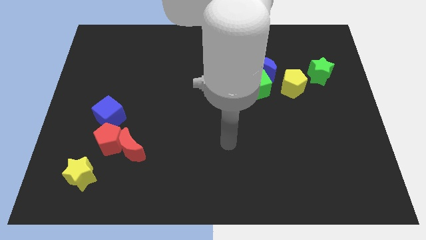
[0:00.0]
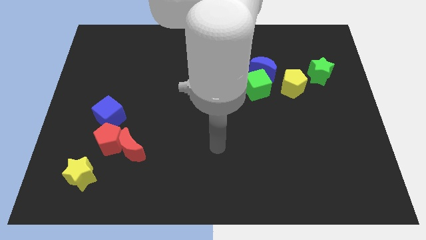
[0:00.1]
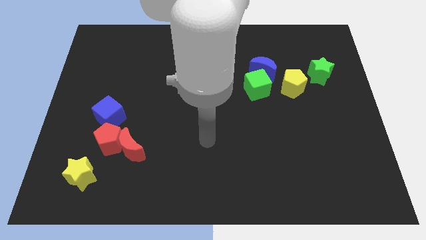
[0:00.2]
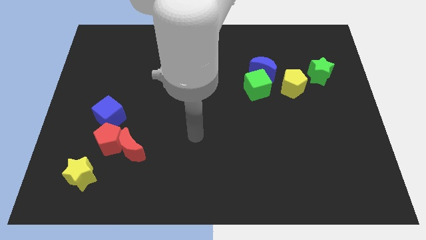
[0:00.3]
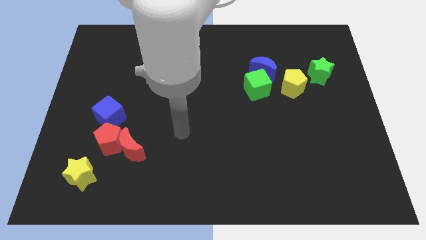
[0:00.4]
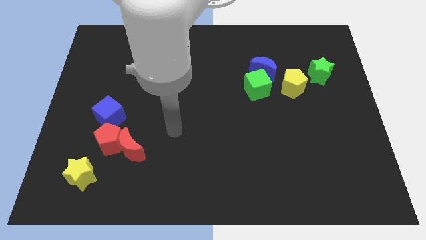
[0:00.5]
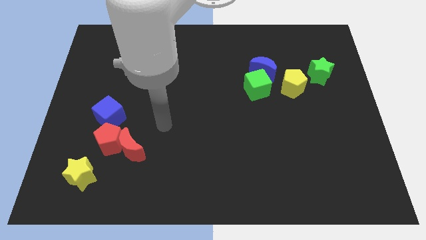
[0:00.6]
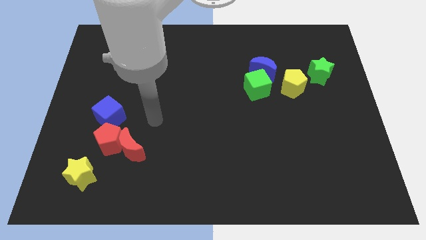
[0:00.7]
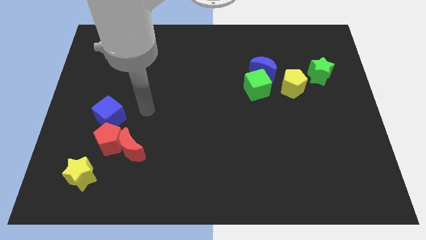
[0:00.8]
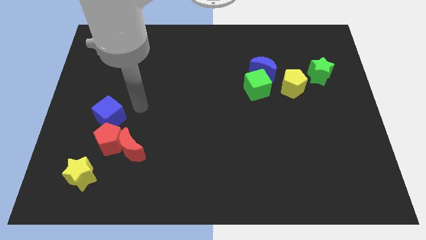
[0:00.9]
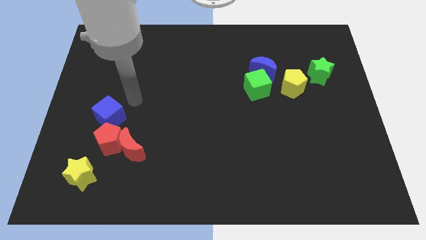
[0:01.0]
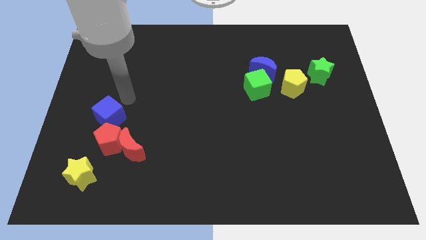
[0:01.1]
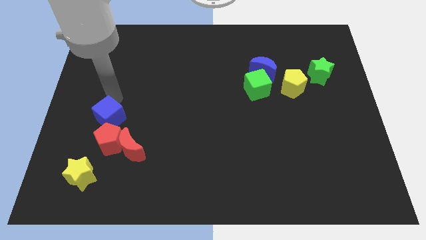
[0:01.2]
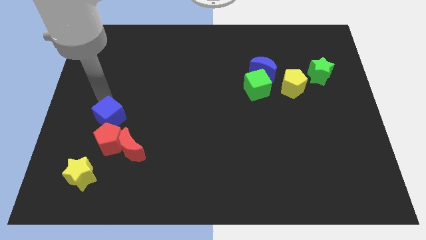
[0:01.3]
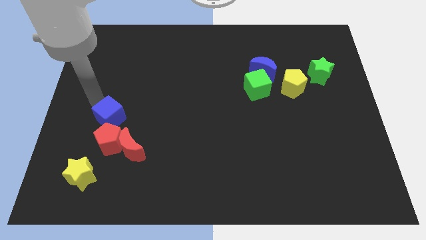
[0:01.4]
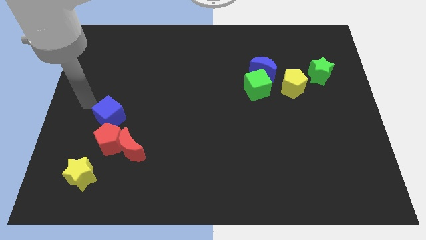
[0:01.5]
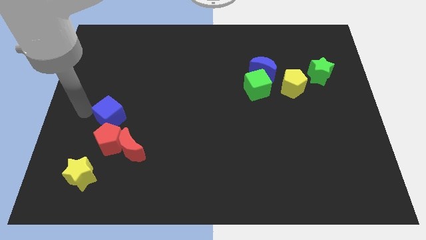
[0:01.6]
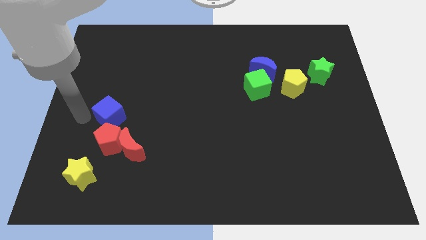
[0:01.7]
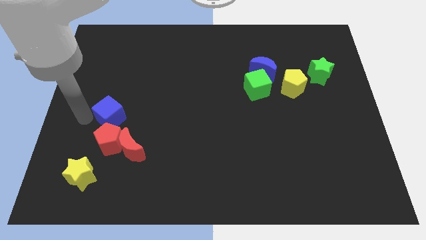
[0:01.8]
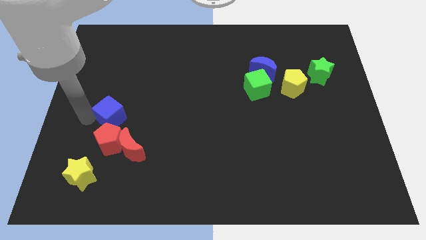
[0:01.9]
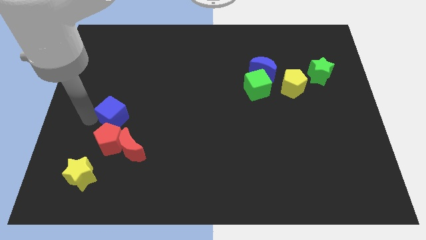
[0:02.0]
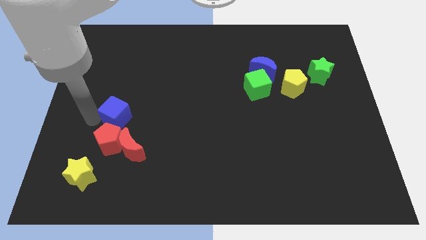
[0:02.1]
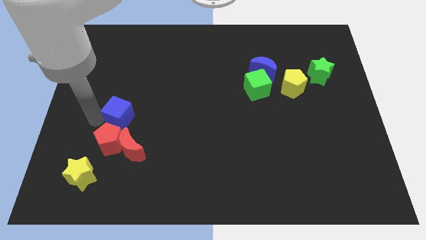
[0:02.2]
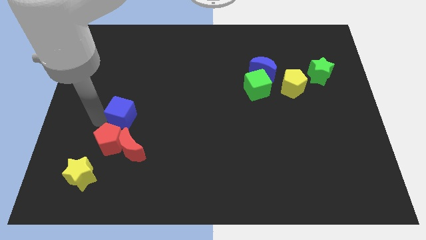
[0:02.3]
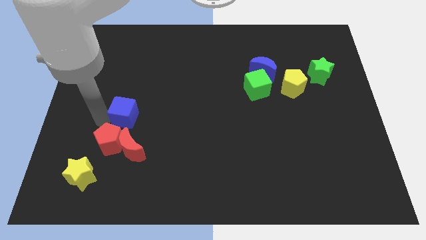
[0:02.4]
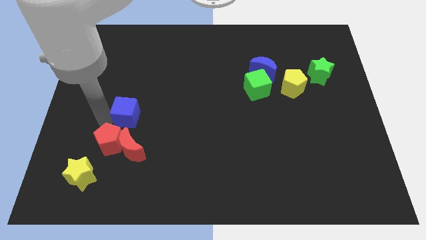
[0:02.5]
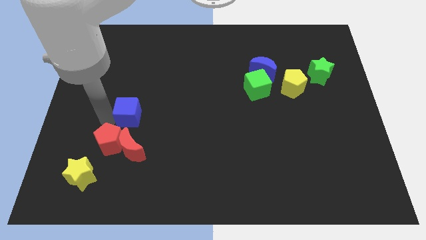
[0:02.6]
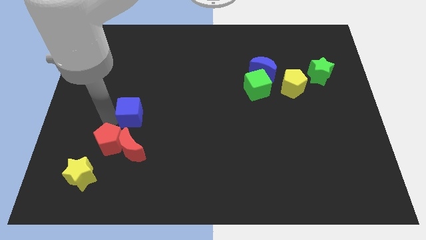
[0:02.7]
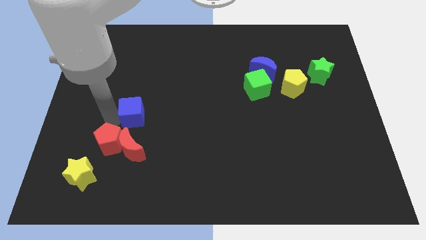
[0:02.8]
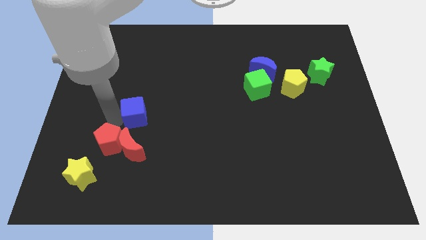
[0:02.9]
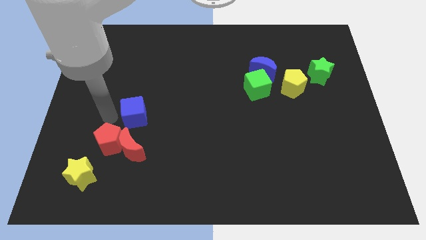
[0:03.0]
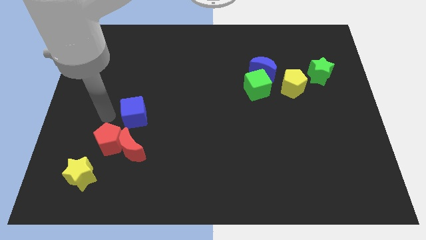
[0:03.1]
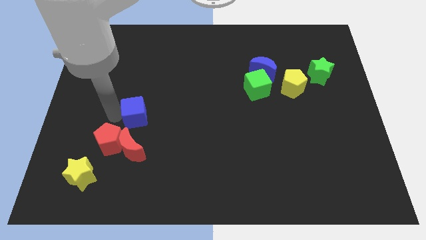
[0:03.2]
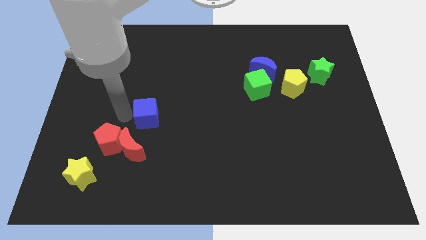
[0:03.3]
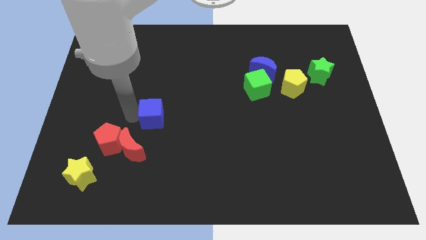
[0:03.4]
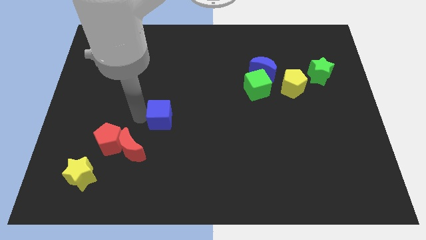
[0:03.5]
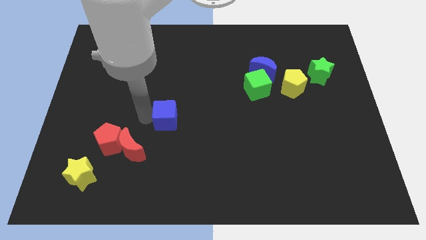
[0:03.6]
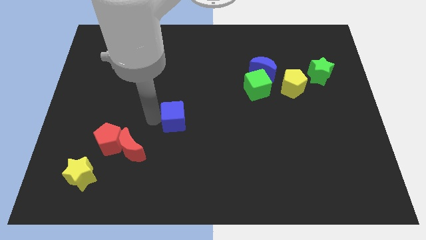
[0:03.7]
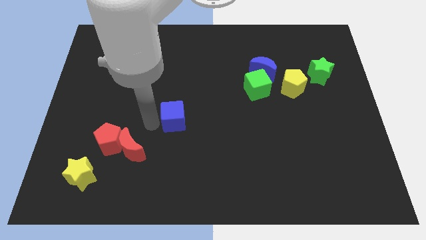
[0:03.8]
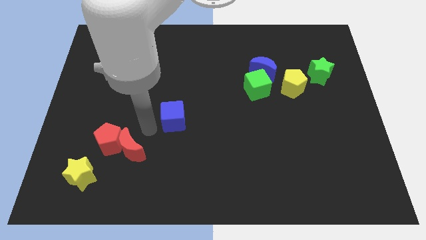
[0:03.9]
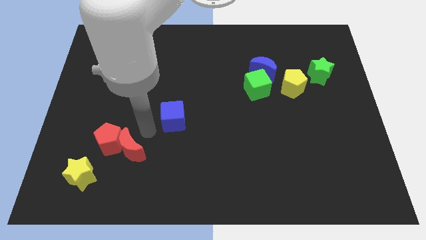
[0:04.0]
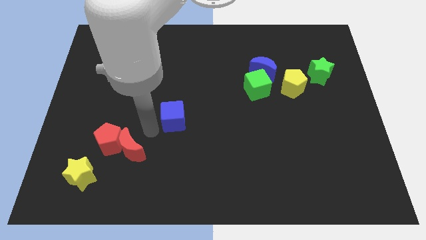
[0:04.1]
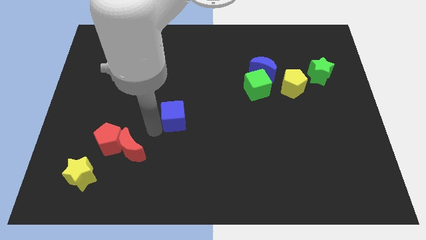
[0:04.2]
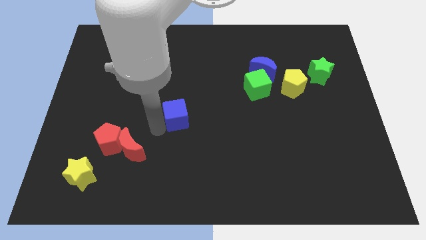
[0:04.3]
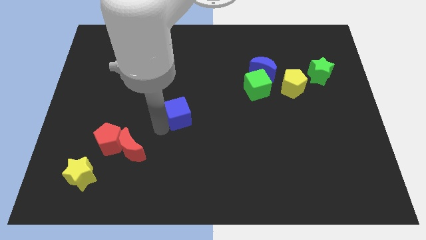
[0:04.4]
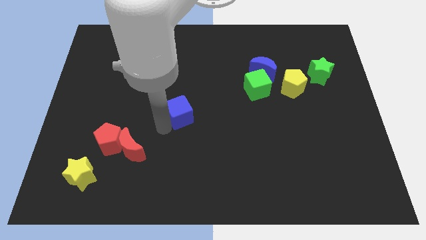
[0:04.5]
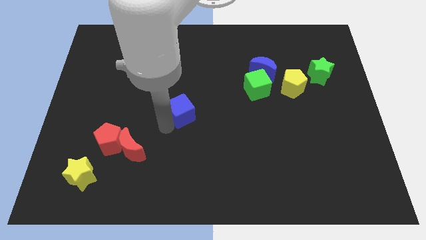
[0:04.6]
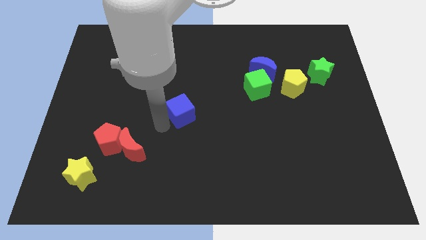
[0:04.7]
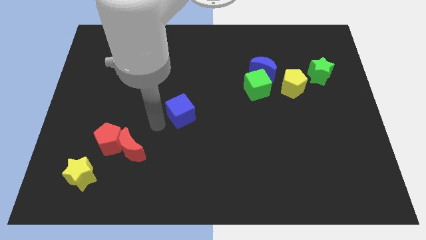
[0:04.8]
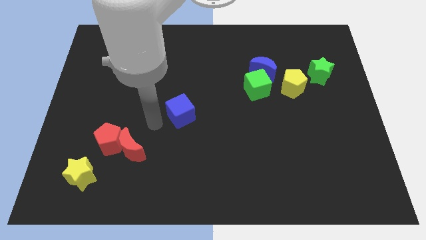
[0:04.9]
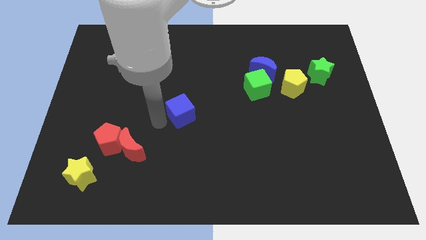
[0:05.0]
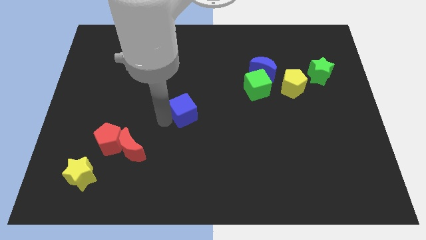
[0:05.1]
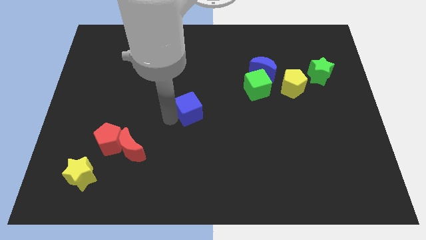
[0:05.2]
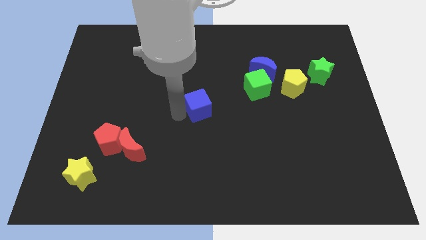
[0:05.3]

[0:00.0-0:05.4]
push the blue cube to the right

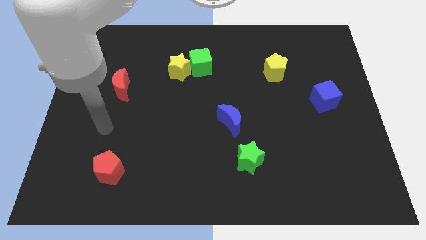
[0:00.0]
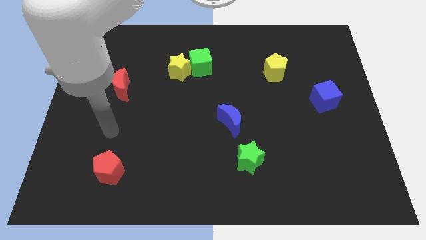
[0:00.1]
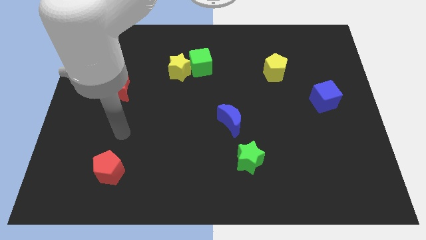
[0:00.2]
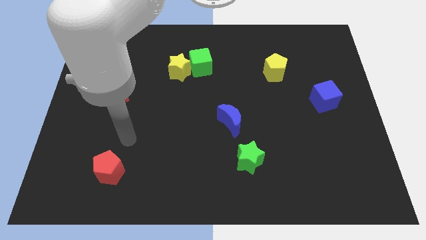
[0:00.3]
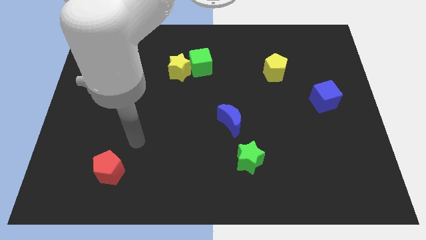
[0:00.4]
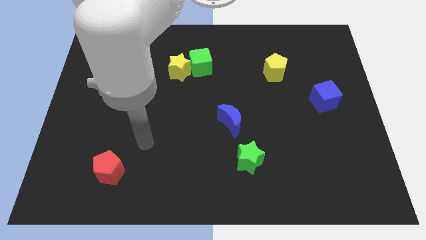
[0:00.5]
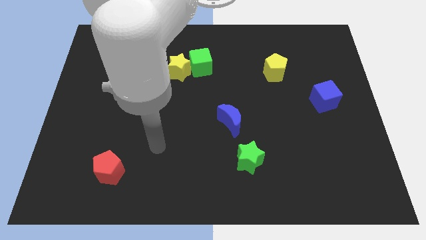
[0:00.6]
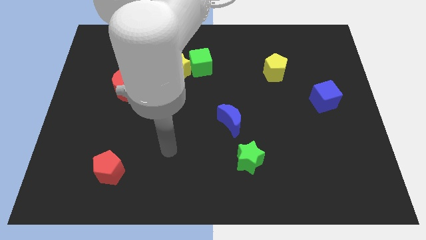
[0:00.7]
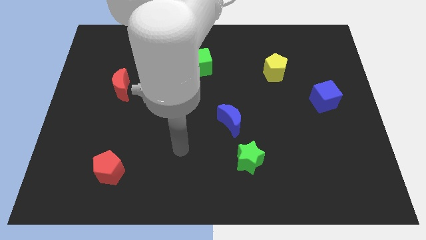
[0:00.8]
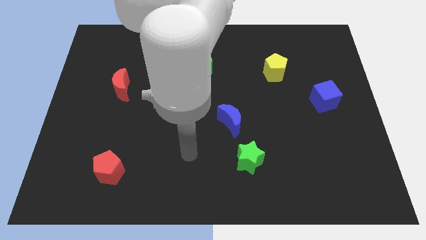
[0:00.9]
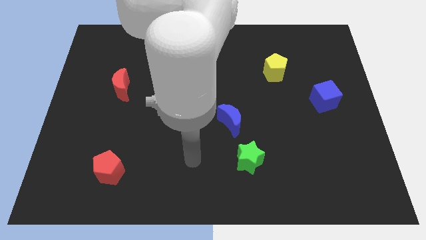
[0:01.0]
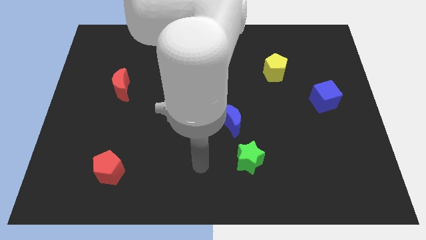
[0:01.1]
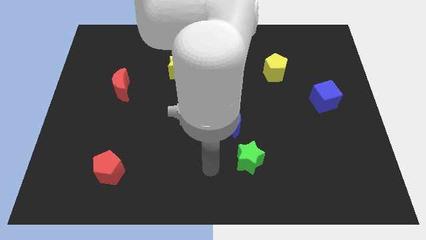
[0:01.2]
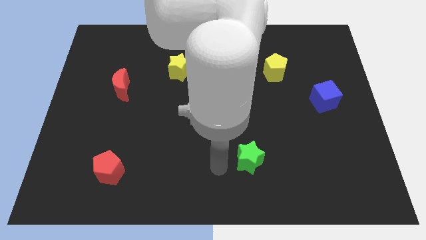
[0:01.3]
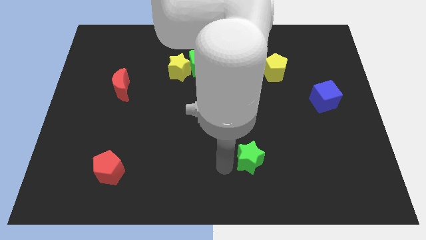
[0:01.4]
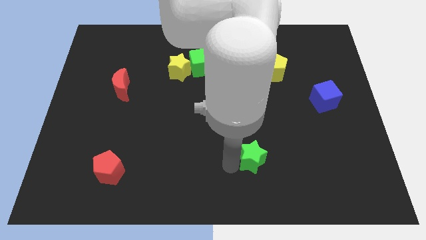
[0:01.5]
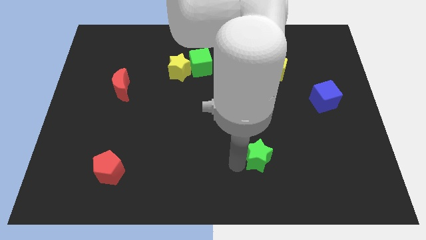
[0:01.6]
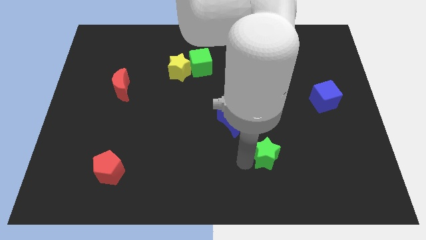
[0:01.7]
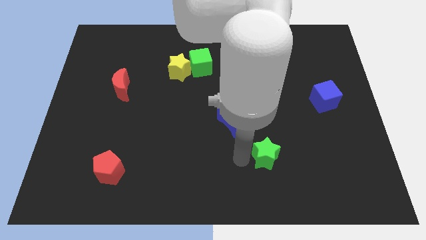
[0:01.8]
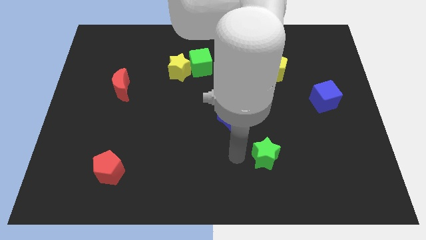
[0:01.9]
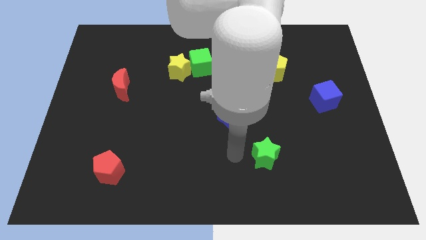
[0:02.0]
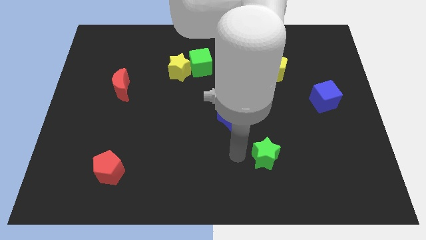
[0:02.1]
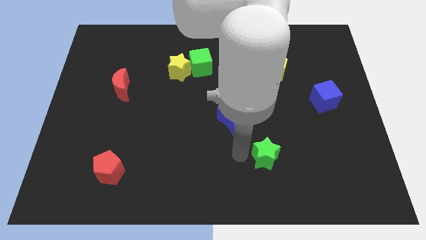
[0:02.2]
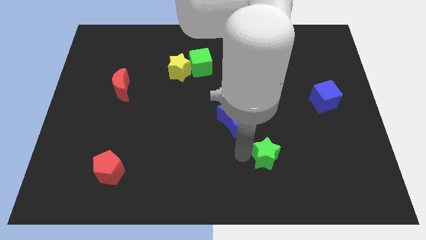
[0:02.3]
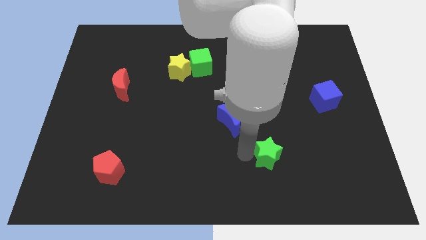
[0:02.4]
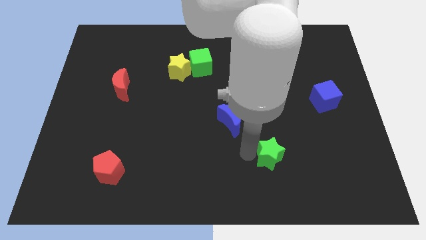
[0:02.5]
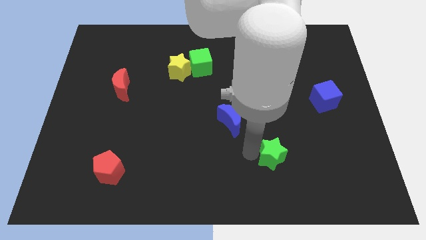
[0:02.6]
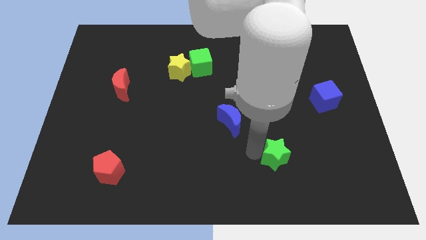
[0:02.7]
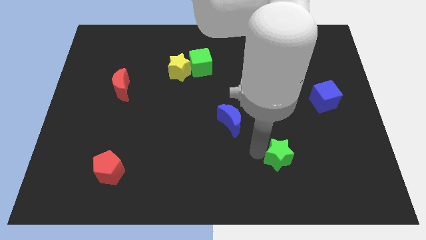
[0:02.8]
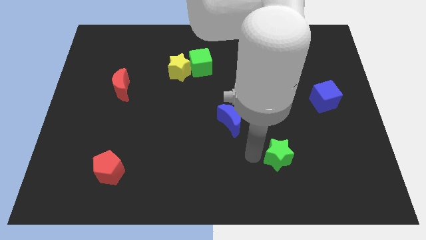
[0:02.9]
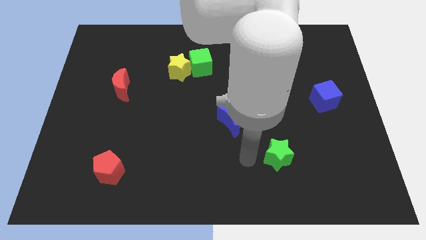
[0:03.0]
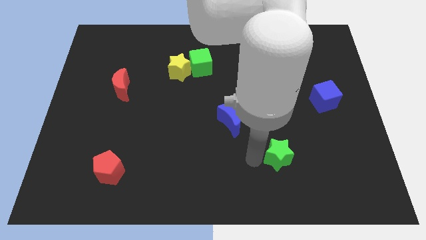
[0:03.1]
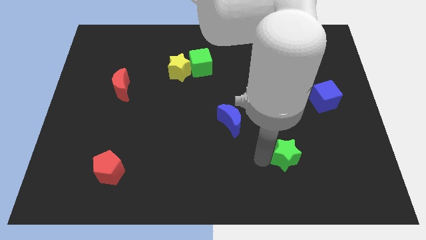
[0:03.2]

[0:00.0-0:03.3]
slightly push the green star right
